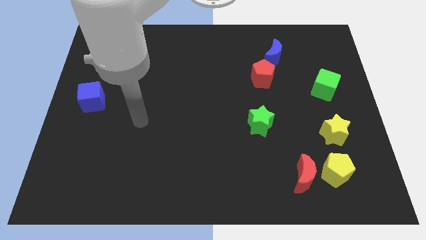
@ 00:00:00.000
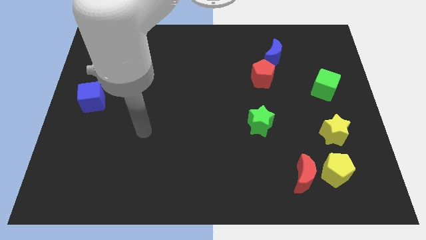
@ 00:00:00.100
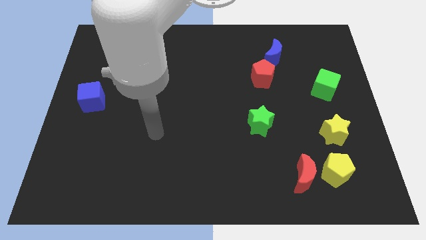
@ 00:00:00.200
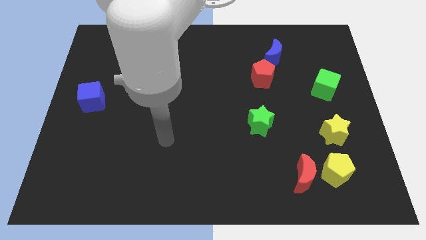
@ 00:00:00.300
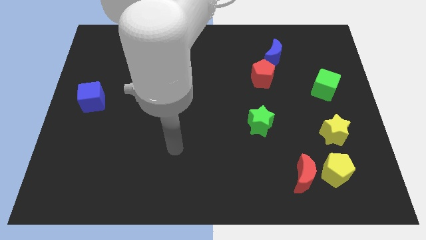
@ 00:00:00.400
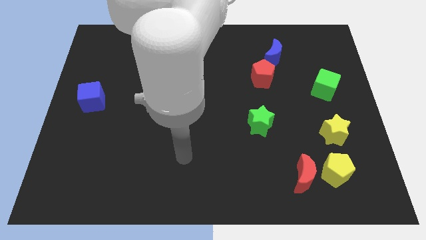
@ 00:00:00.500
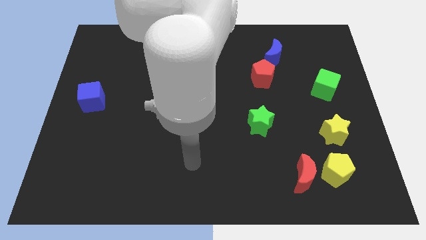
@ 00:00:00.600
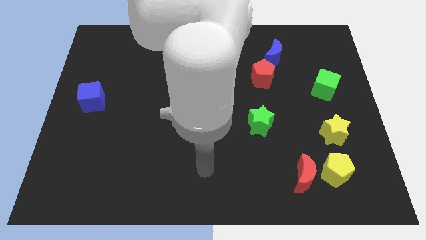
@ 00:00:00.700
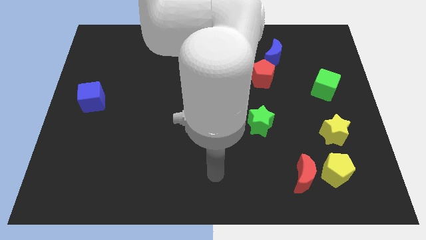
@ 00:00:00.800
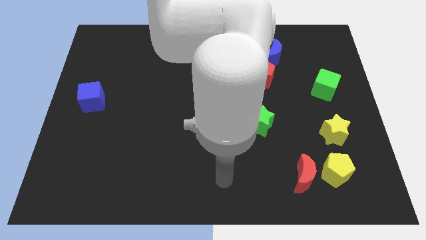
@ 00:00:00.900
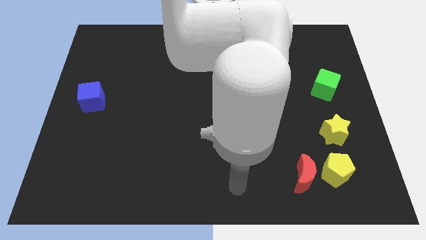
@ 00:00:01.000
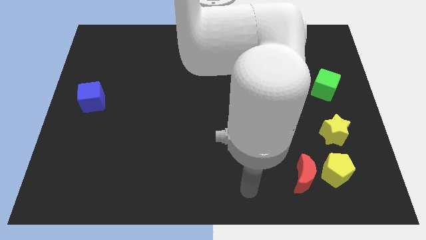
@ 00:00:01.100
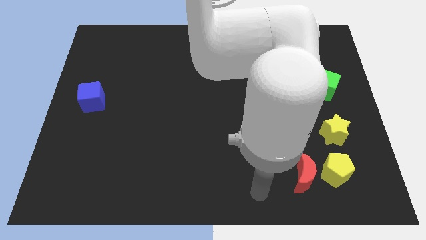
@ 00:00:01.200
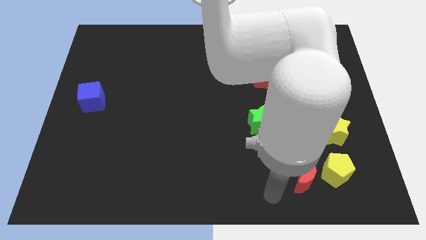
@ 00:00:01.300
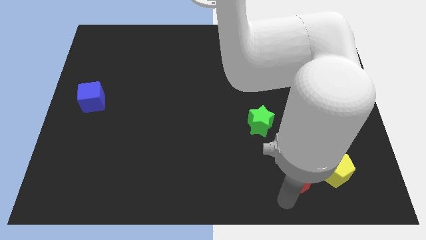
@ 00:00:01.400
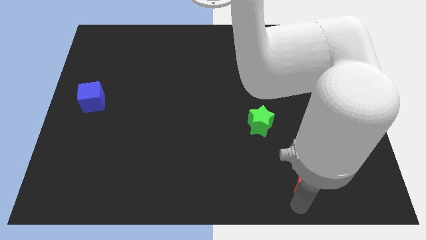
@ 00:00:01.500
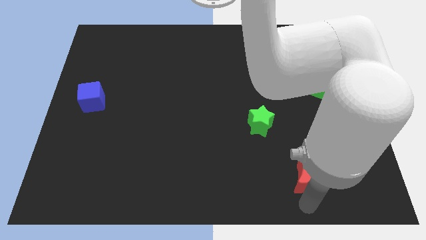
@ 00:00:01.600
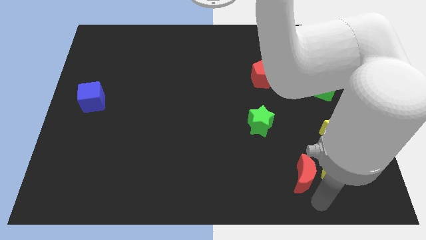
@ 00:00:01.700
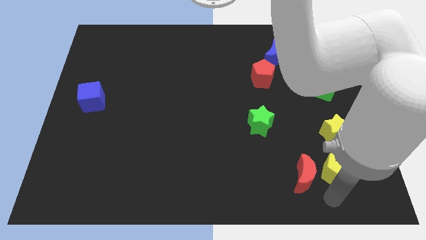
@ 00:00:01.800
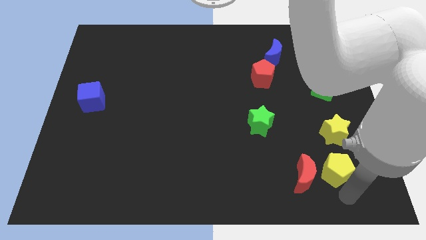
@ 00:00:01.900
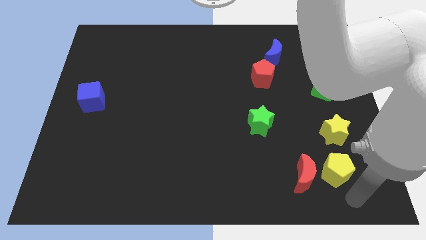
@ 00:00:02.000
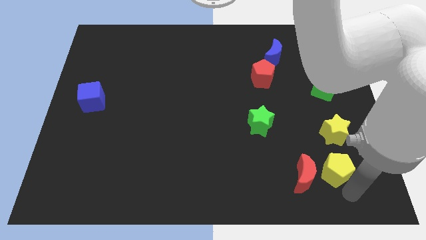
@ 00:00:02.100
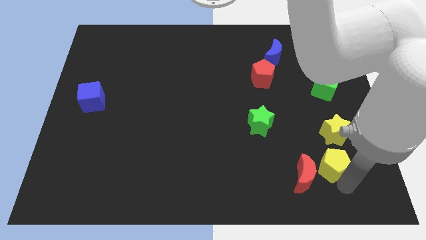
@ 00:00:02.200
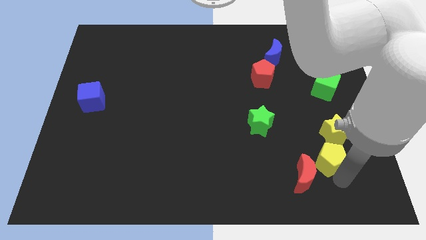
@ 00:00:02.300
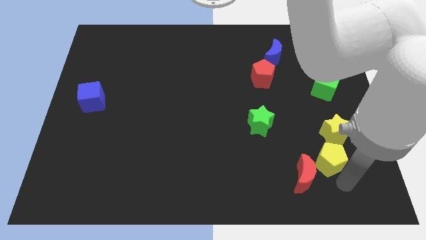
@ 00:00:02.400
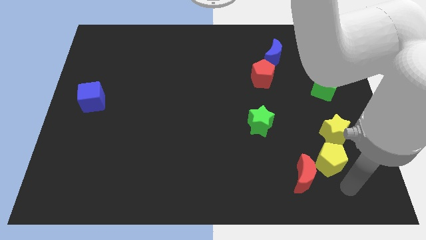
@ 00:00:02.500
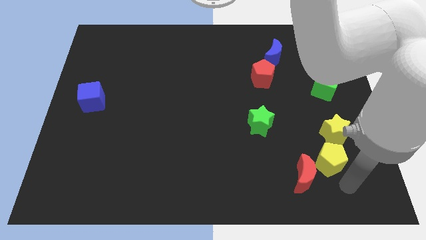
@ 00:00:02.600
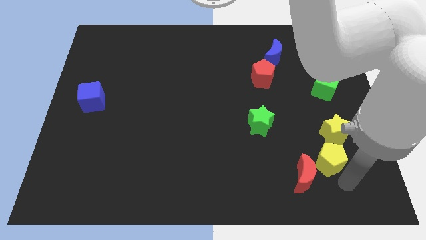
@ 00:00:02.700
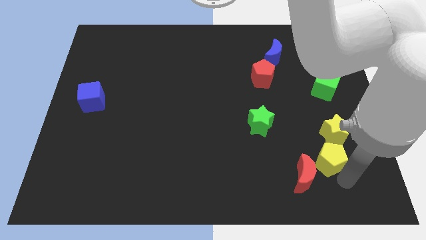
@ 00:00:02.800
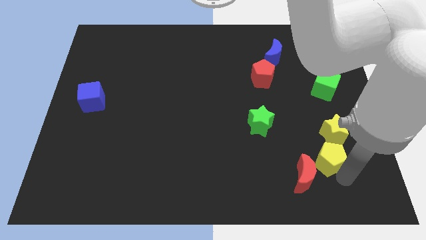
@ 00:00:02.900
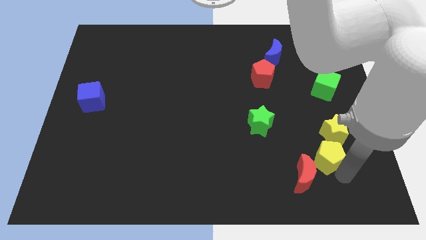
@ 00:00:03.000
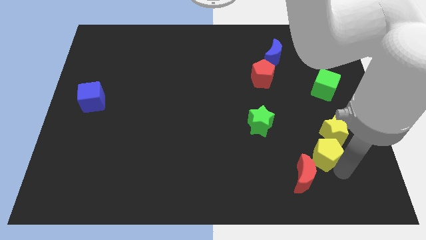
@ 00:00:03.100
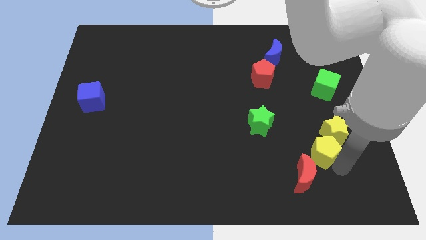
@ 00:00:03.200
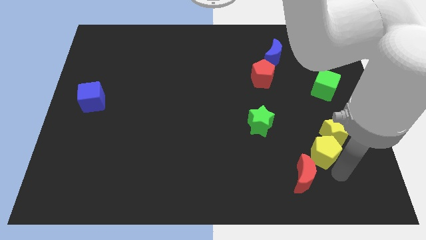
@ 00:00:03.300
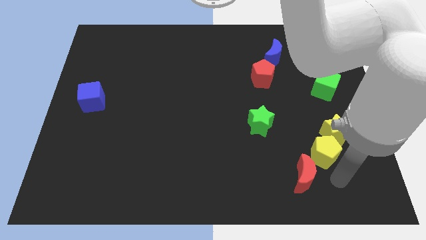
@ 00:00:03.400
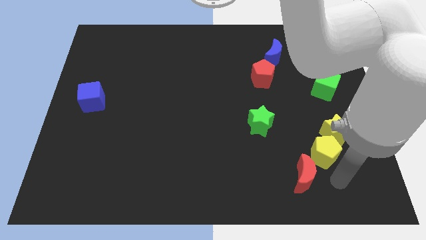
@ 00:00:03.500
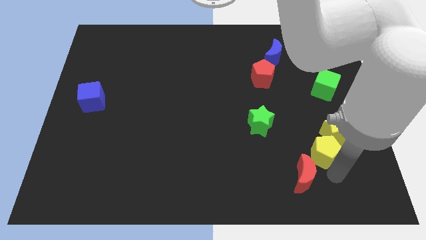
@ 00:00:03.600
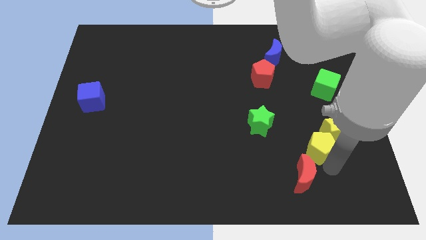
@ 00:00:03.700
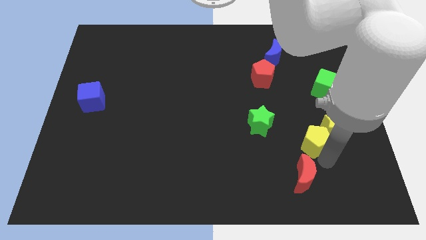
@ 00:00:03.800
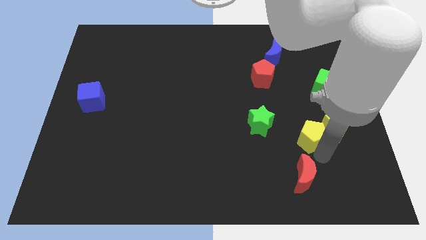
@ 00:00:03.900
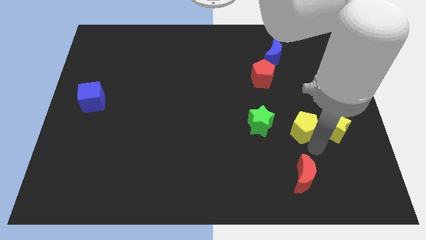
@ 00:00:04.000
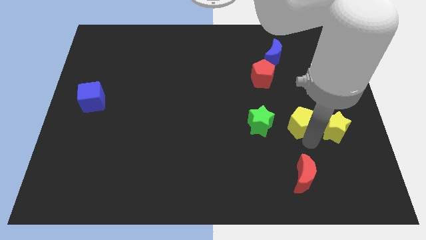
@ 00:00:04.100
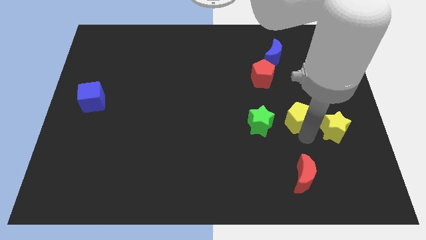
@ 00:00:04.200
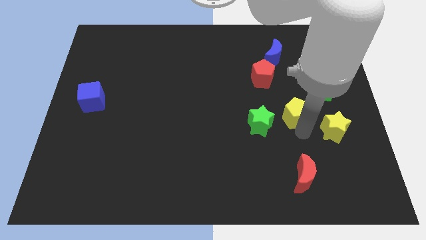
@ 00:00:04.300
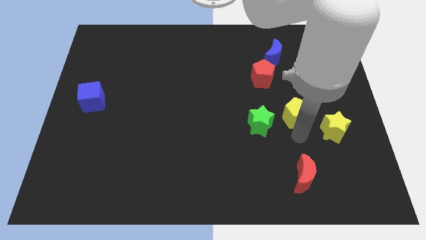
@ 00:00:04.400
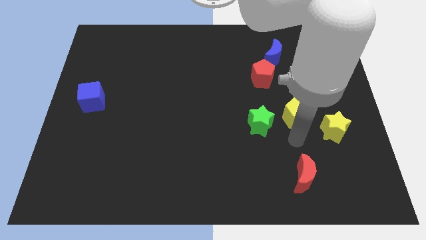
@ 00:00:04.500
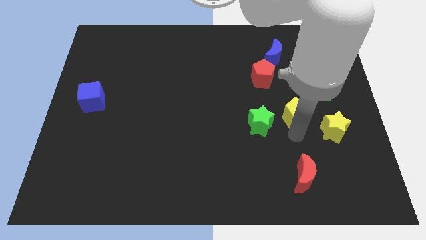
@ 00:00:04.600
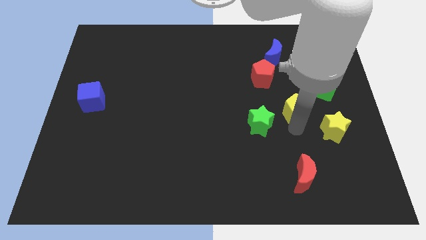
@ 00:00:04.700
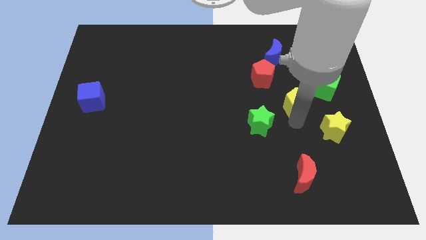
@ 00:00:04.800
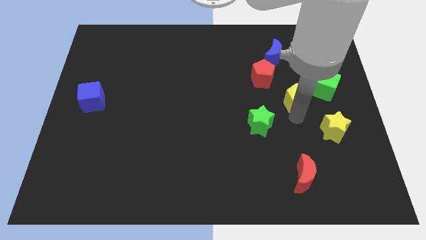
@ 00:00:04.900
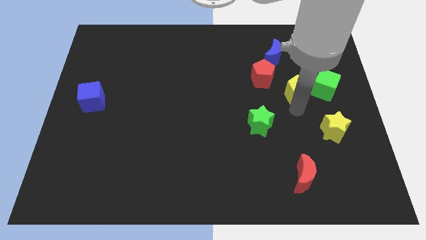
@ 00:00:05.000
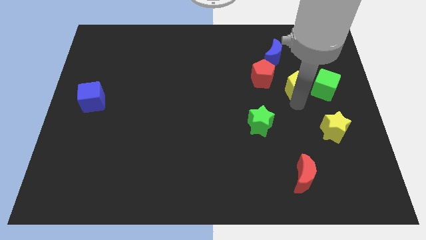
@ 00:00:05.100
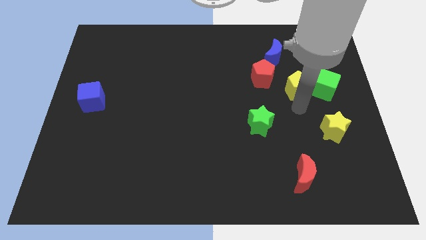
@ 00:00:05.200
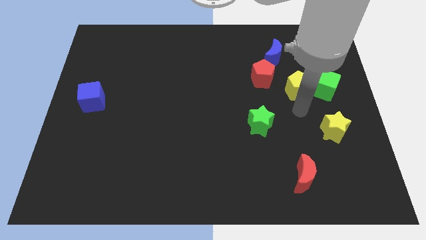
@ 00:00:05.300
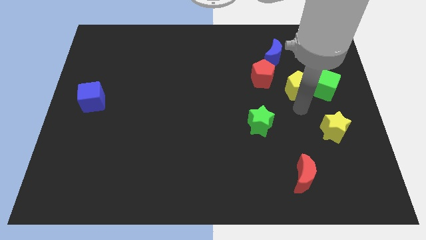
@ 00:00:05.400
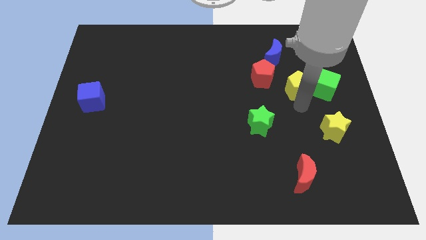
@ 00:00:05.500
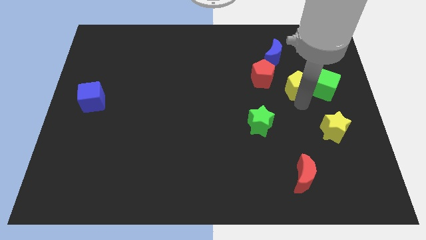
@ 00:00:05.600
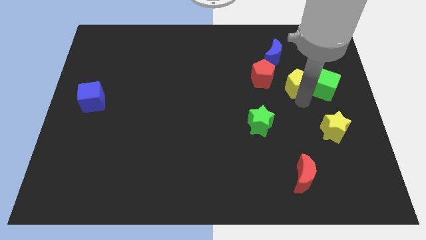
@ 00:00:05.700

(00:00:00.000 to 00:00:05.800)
move the yellow pentagon diagonally down and to the right of the blue moon

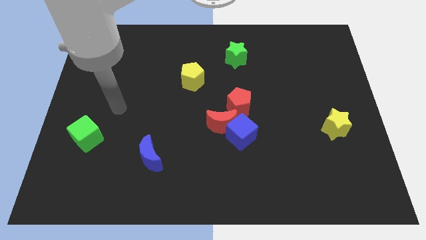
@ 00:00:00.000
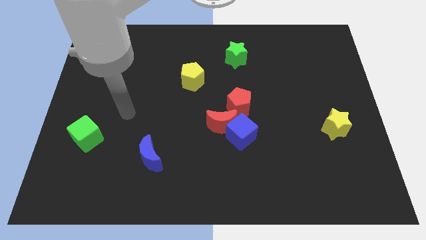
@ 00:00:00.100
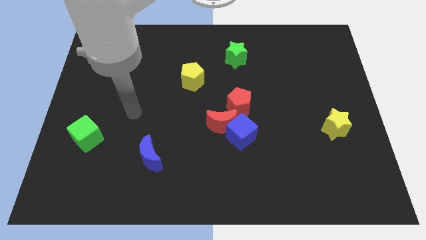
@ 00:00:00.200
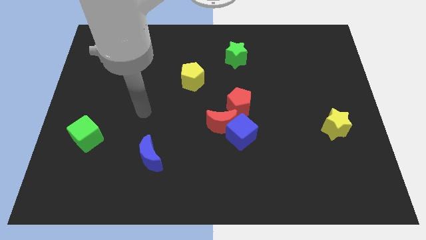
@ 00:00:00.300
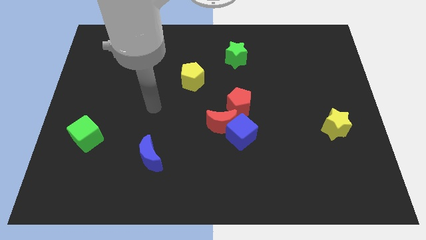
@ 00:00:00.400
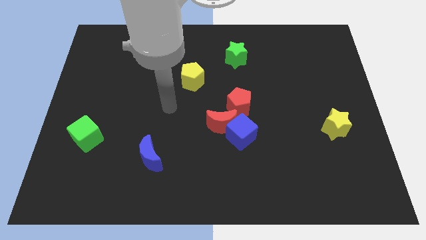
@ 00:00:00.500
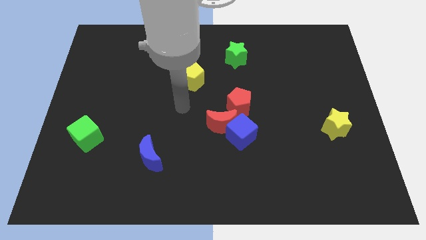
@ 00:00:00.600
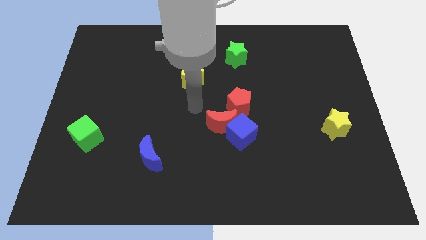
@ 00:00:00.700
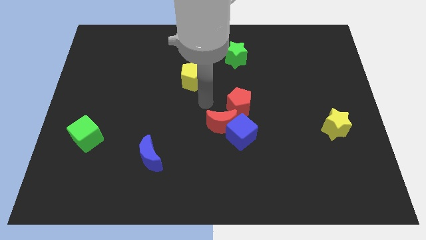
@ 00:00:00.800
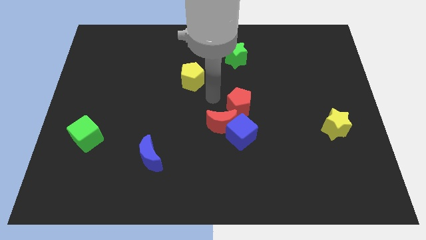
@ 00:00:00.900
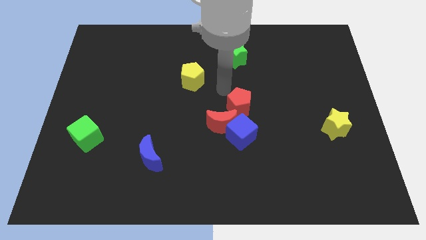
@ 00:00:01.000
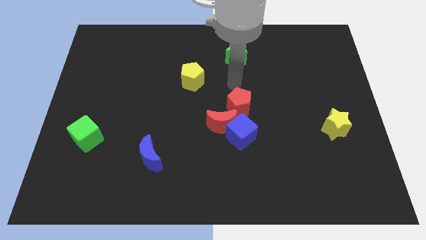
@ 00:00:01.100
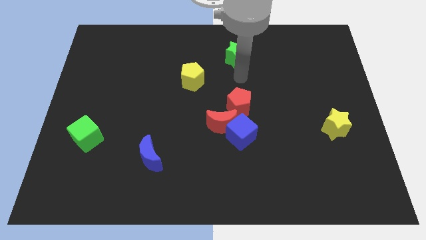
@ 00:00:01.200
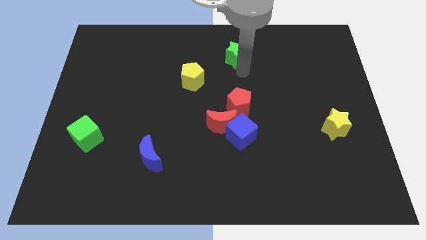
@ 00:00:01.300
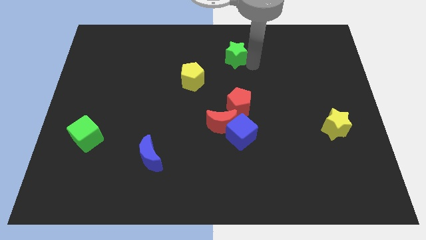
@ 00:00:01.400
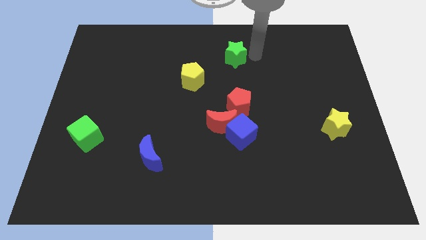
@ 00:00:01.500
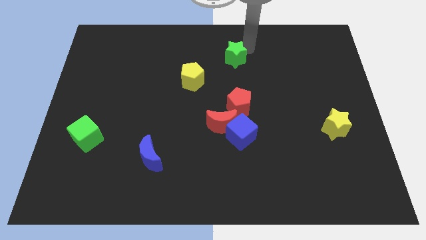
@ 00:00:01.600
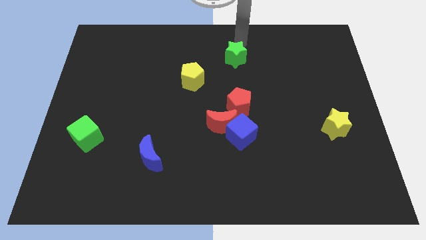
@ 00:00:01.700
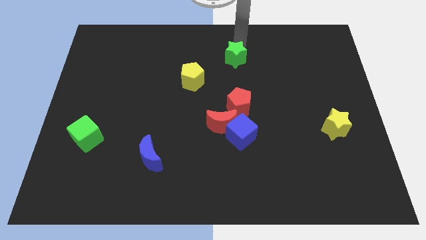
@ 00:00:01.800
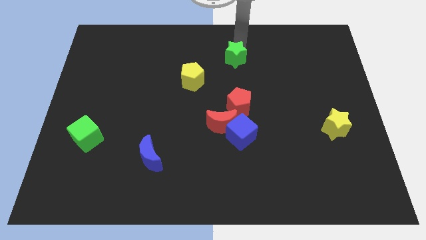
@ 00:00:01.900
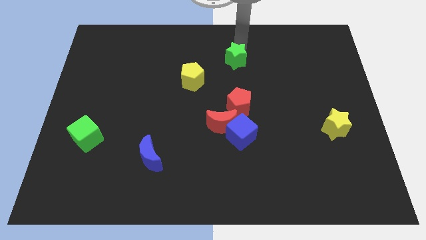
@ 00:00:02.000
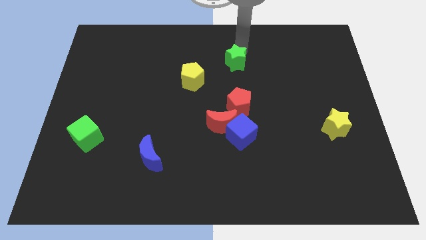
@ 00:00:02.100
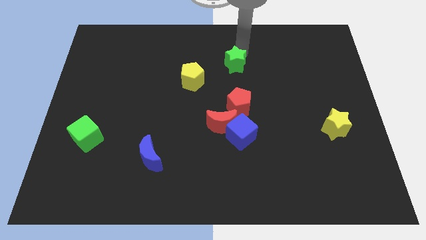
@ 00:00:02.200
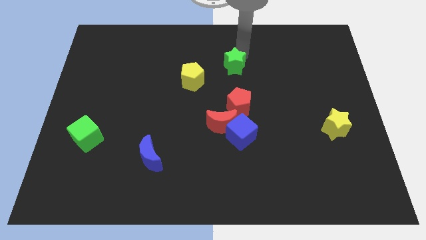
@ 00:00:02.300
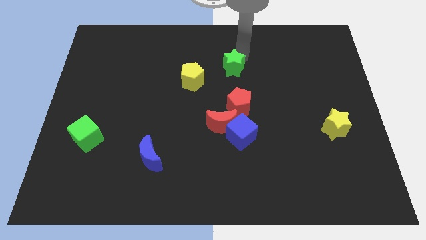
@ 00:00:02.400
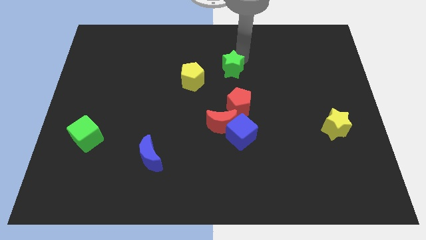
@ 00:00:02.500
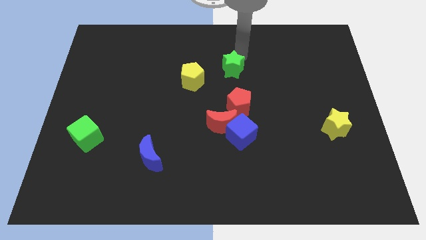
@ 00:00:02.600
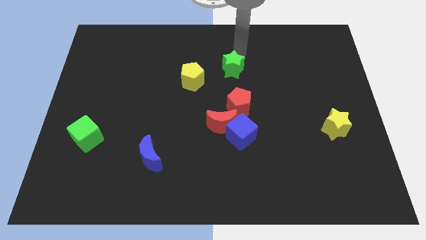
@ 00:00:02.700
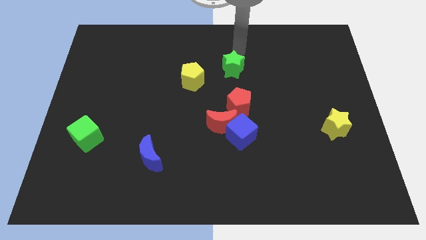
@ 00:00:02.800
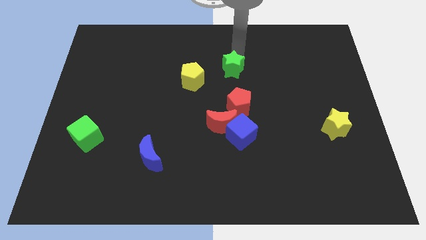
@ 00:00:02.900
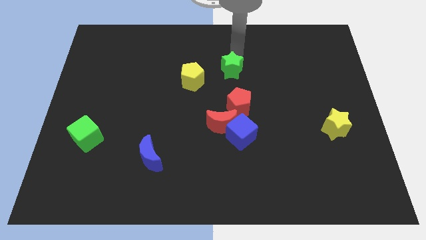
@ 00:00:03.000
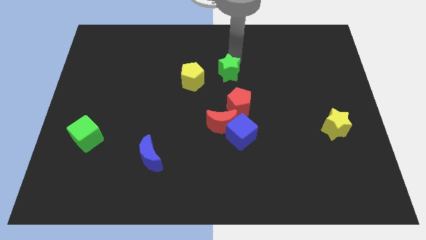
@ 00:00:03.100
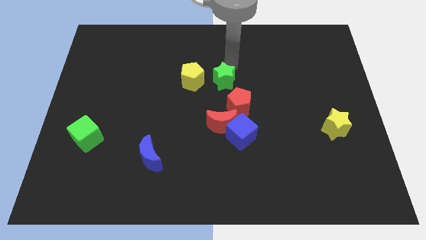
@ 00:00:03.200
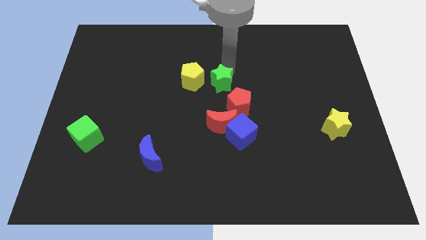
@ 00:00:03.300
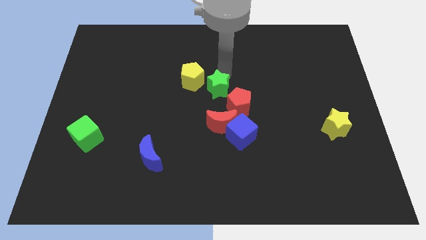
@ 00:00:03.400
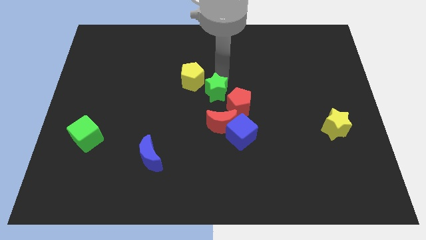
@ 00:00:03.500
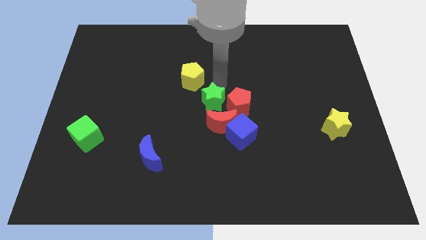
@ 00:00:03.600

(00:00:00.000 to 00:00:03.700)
move the green star to the bottom of the yellow pentagon
